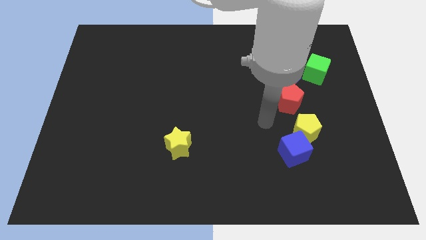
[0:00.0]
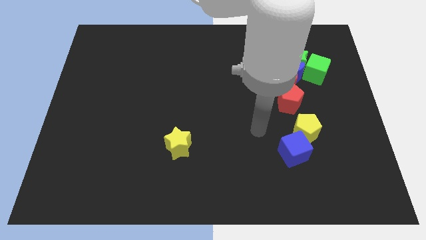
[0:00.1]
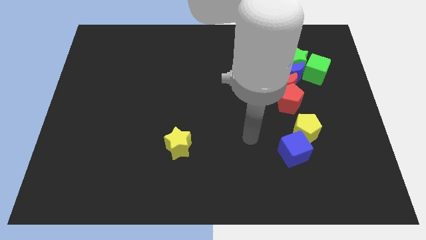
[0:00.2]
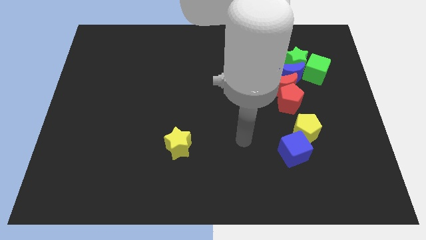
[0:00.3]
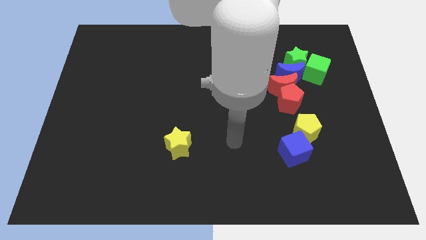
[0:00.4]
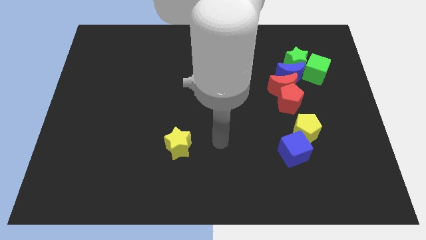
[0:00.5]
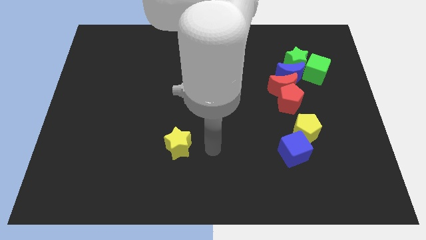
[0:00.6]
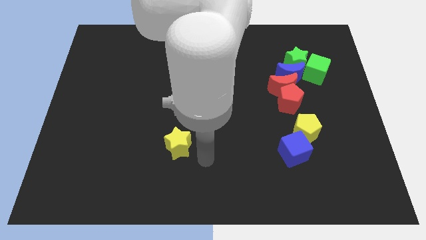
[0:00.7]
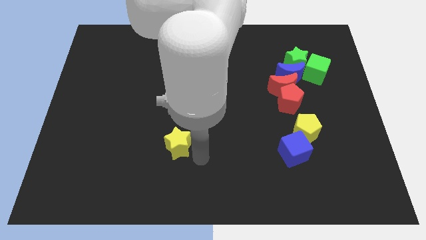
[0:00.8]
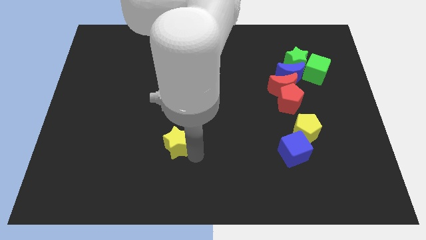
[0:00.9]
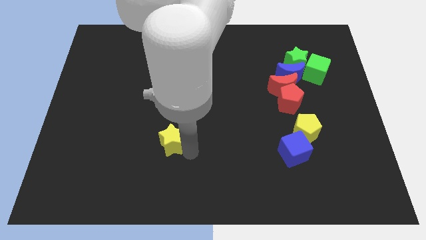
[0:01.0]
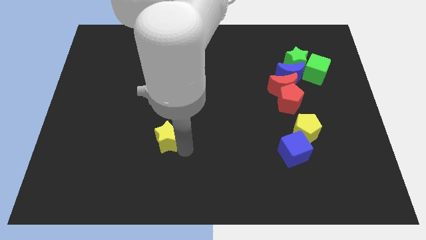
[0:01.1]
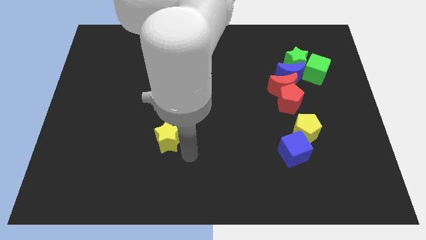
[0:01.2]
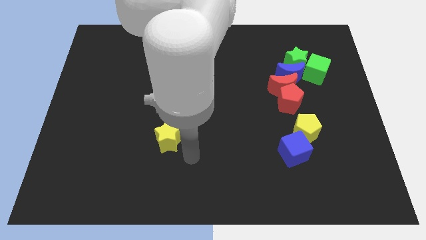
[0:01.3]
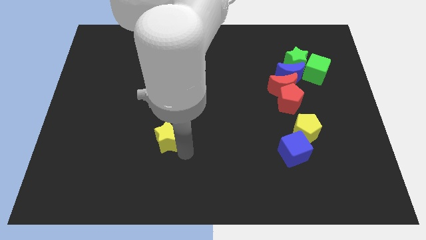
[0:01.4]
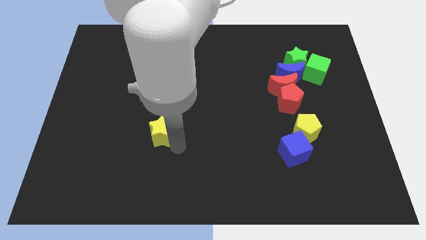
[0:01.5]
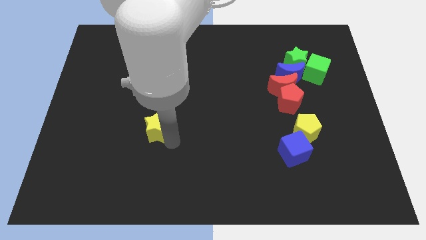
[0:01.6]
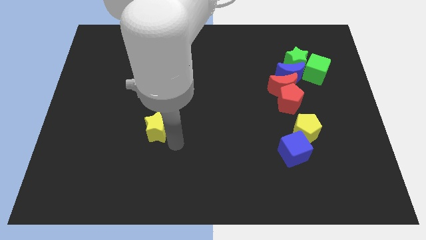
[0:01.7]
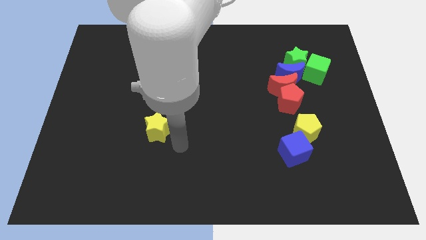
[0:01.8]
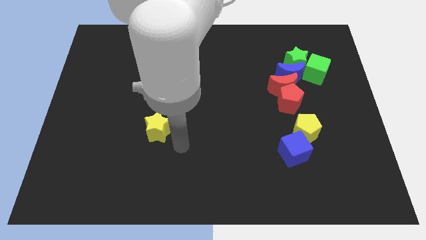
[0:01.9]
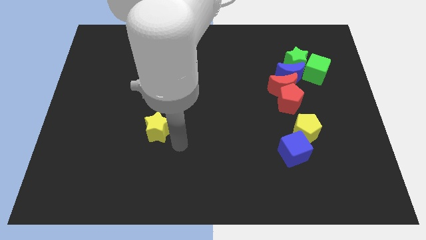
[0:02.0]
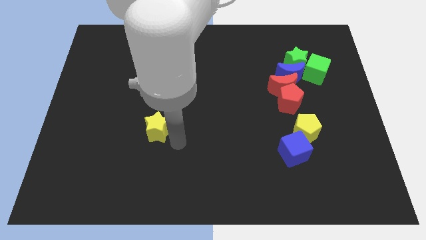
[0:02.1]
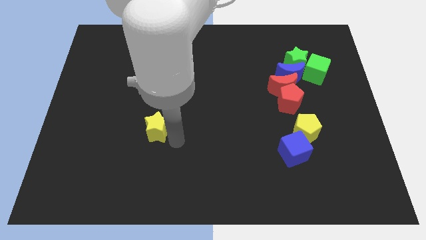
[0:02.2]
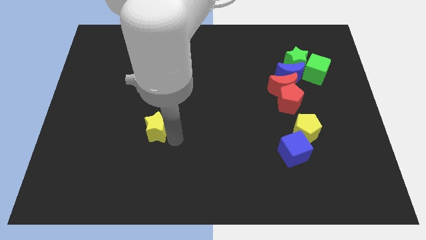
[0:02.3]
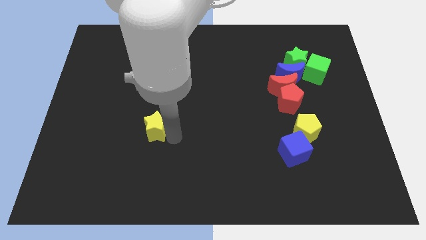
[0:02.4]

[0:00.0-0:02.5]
push the yellow star a little up and to the left

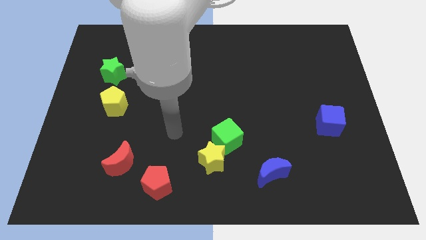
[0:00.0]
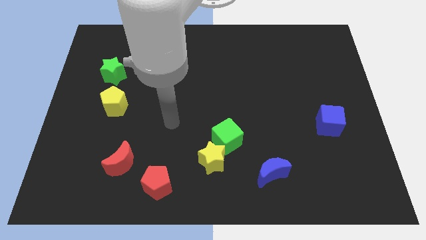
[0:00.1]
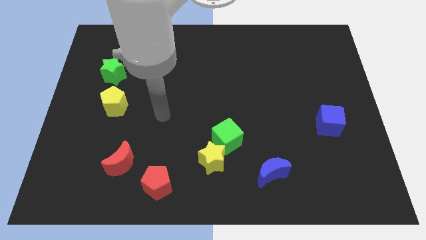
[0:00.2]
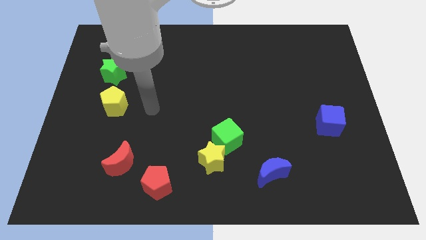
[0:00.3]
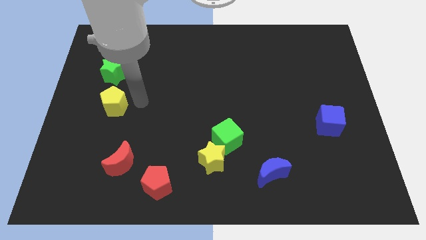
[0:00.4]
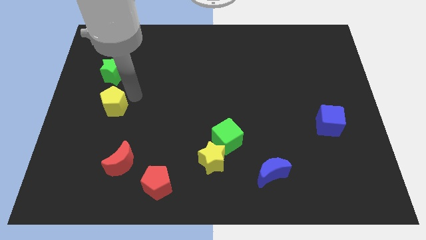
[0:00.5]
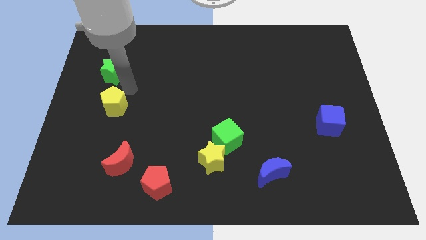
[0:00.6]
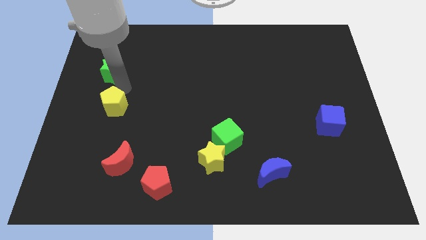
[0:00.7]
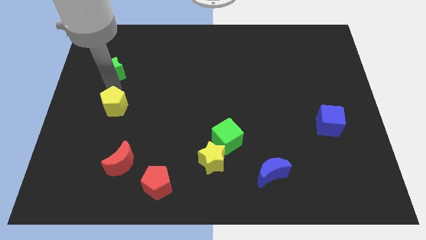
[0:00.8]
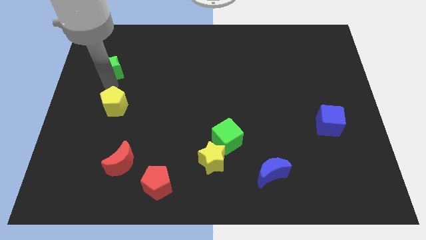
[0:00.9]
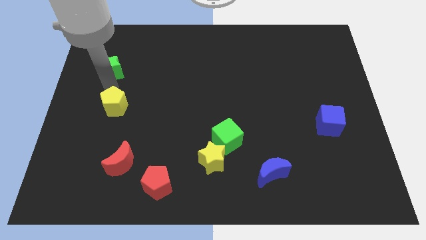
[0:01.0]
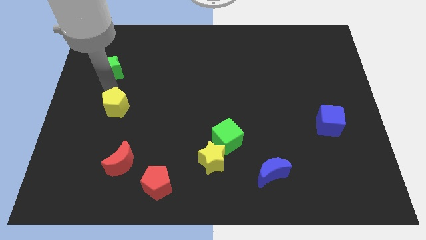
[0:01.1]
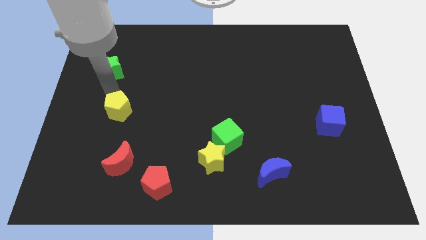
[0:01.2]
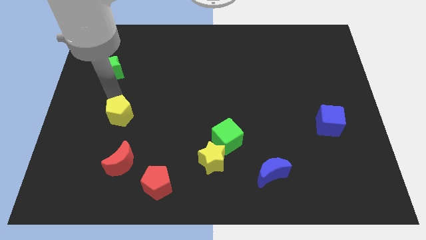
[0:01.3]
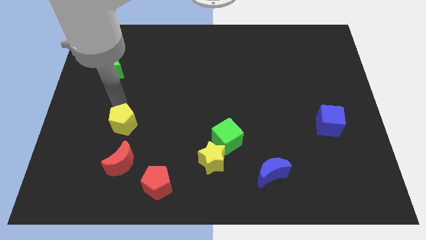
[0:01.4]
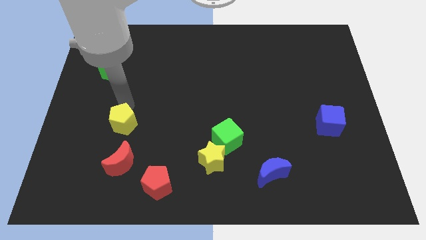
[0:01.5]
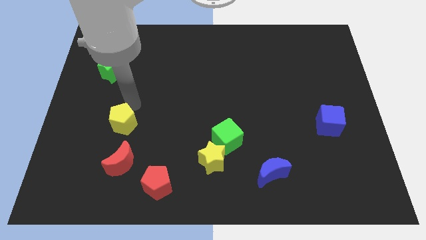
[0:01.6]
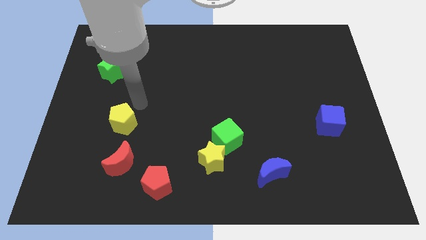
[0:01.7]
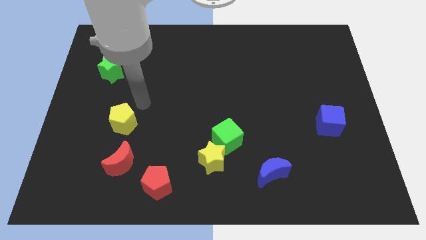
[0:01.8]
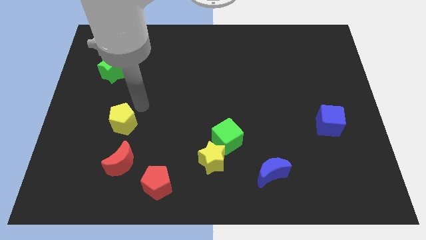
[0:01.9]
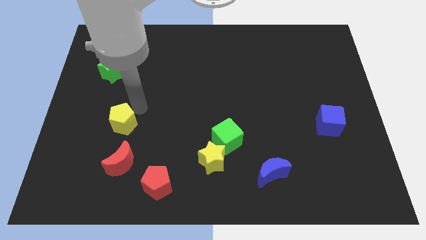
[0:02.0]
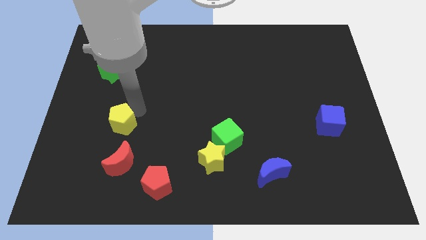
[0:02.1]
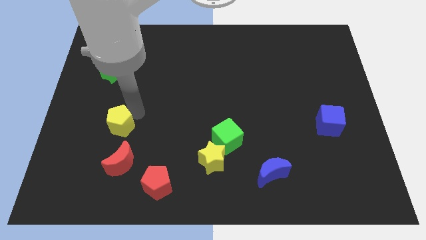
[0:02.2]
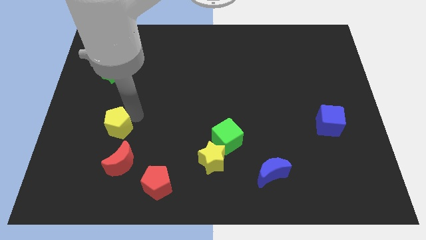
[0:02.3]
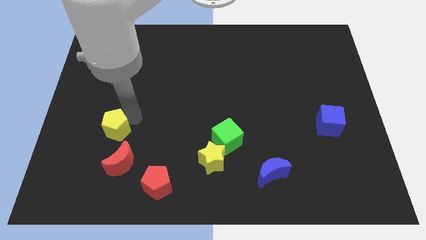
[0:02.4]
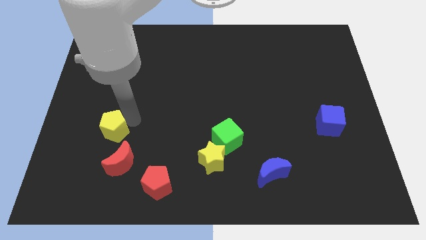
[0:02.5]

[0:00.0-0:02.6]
slide the yellow pentagon down a little

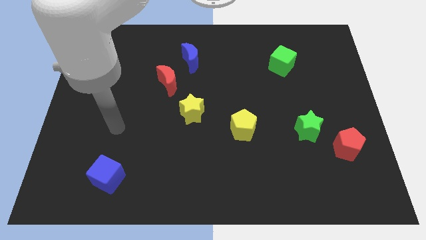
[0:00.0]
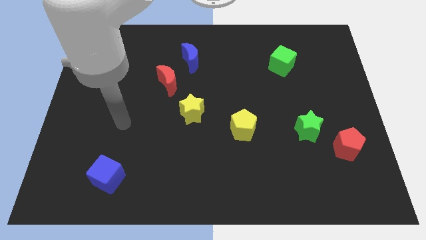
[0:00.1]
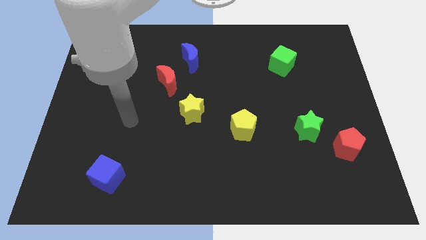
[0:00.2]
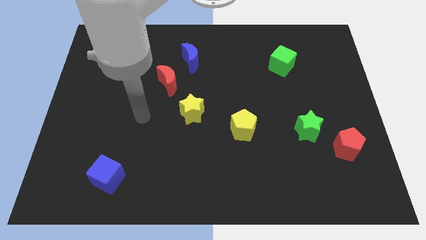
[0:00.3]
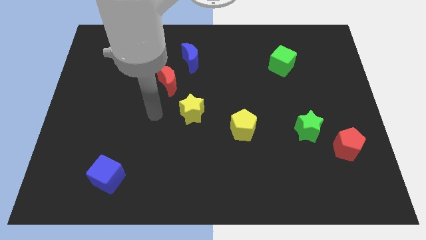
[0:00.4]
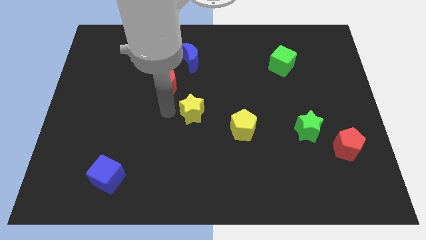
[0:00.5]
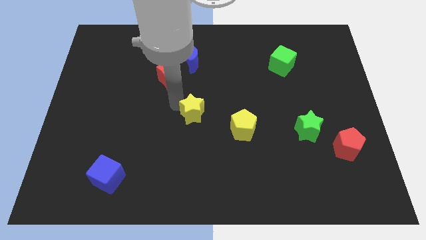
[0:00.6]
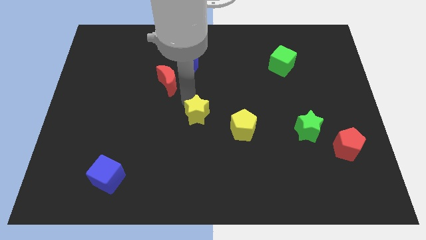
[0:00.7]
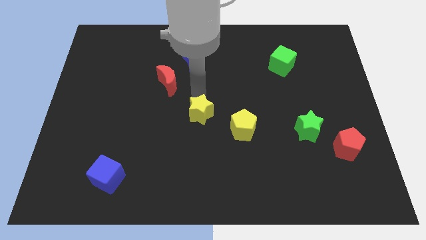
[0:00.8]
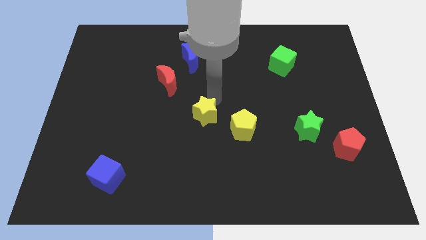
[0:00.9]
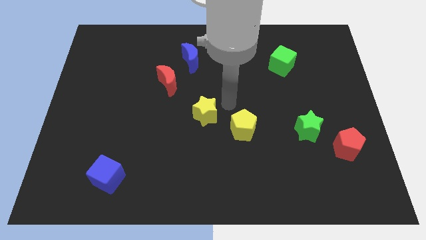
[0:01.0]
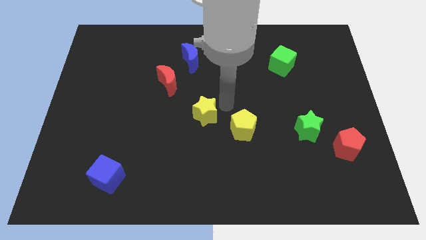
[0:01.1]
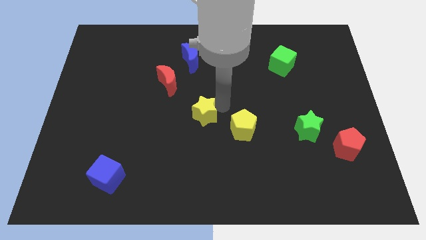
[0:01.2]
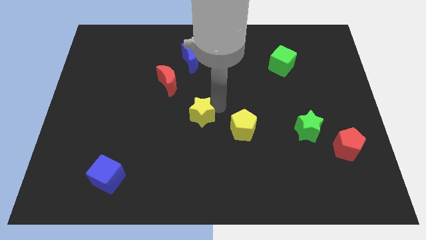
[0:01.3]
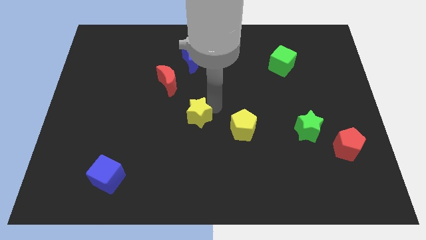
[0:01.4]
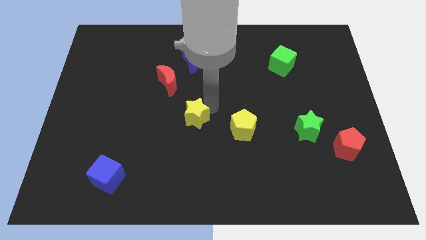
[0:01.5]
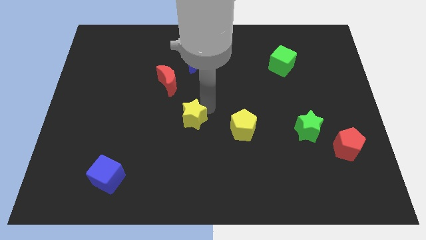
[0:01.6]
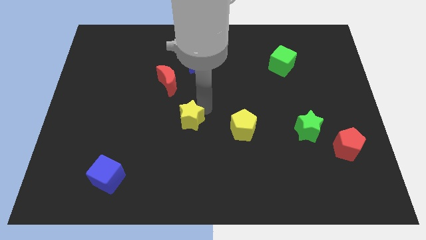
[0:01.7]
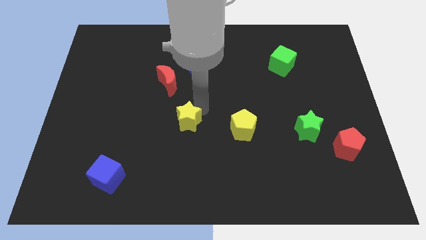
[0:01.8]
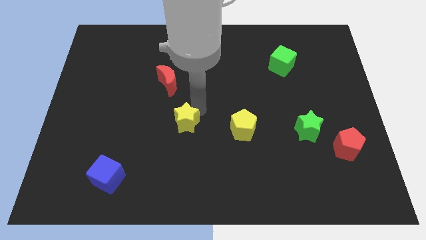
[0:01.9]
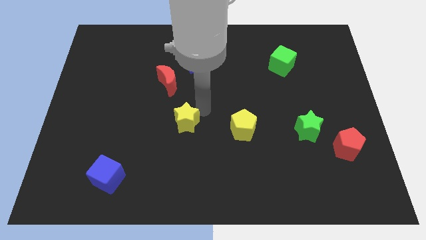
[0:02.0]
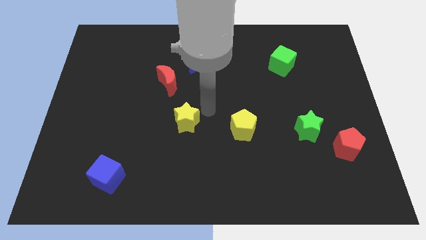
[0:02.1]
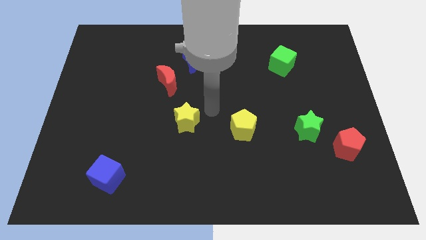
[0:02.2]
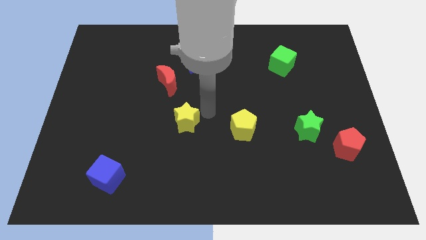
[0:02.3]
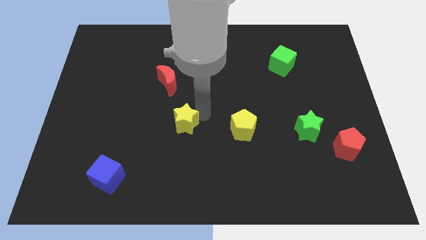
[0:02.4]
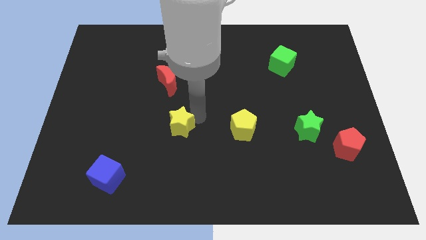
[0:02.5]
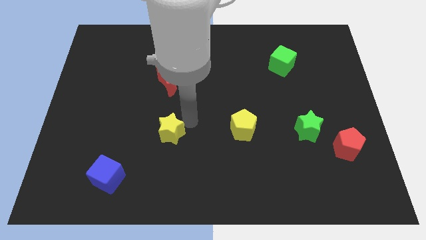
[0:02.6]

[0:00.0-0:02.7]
slide the yellow star down and to the left a little

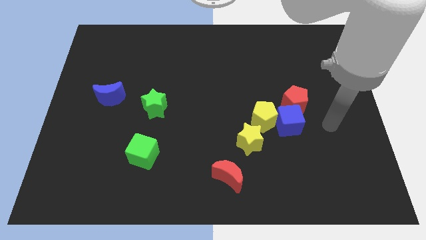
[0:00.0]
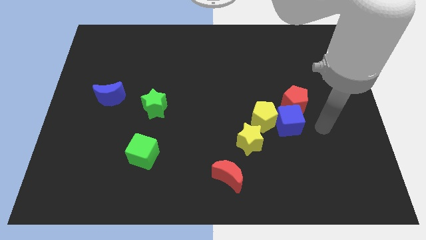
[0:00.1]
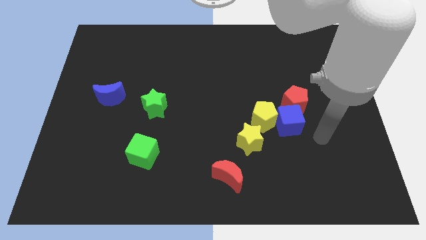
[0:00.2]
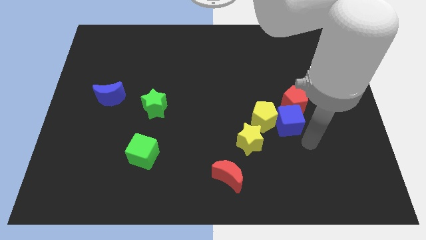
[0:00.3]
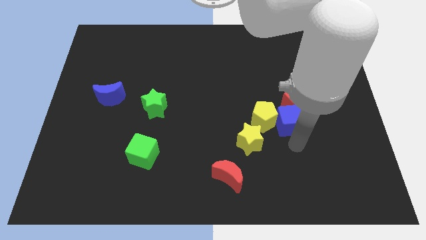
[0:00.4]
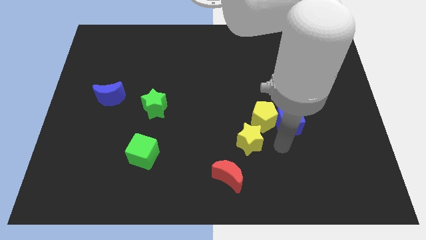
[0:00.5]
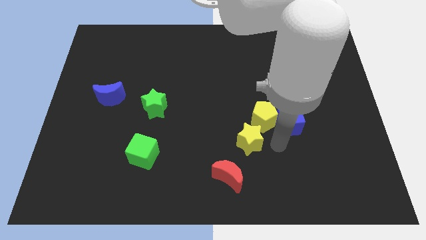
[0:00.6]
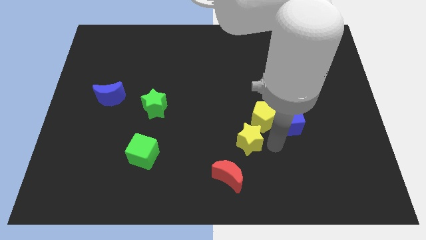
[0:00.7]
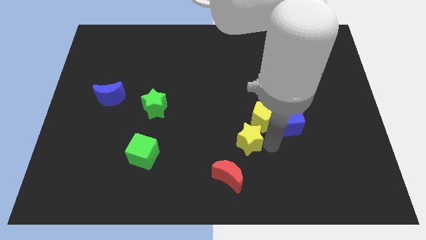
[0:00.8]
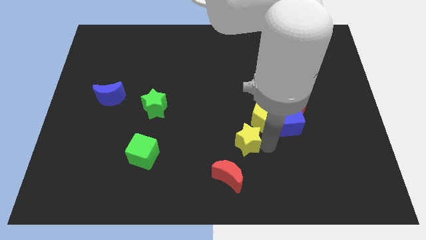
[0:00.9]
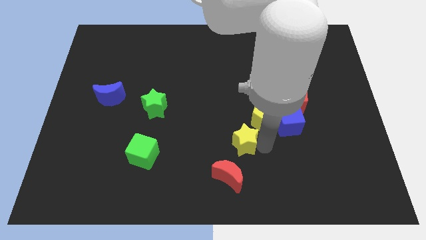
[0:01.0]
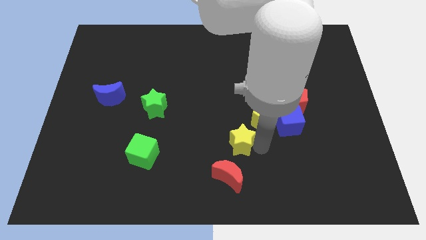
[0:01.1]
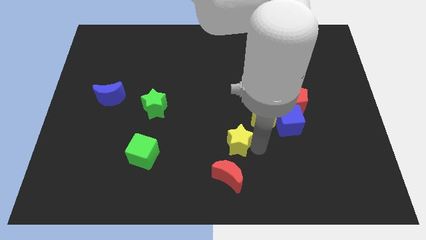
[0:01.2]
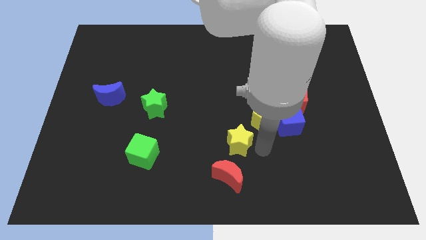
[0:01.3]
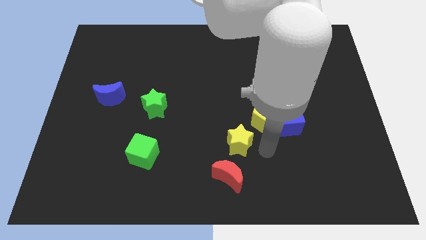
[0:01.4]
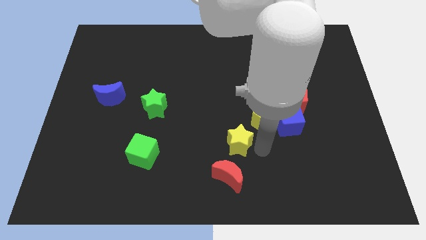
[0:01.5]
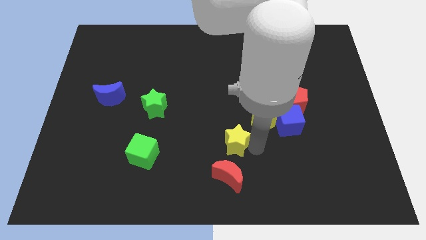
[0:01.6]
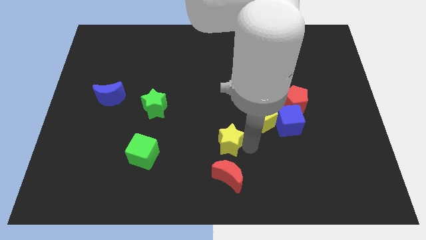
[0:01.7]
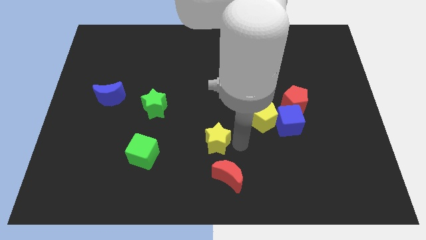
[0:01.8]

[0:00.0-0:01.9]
push the yellow star a bit to the left
